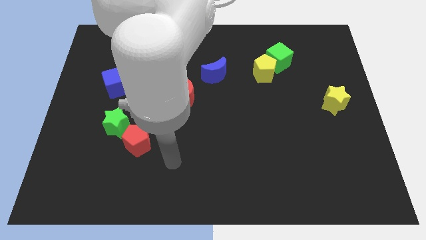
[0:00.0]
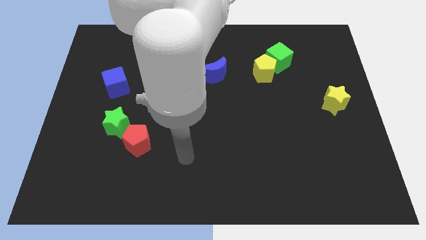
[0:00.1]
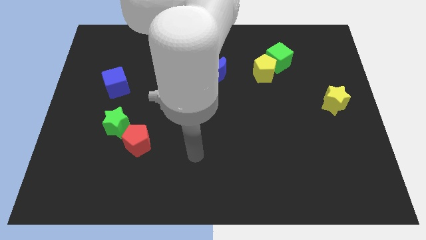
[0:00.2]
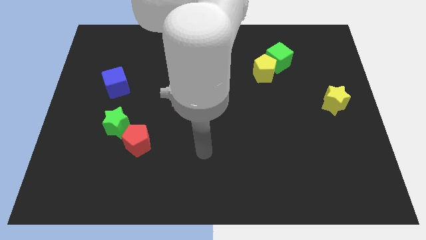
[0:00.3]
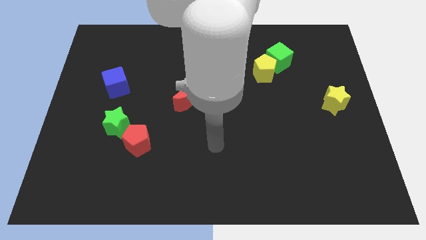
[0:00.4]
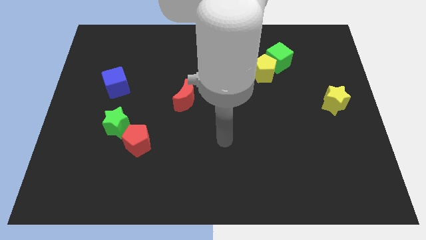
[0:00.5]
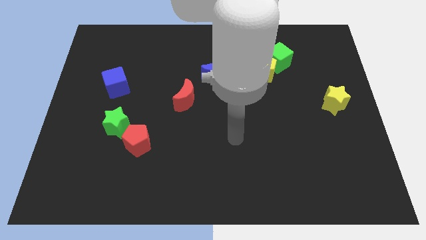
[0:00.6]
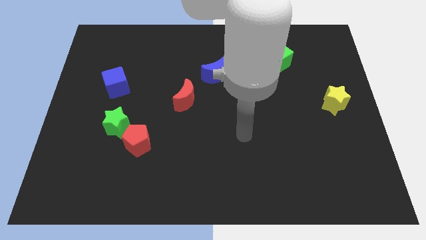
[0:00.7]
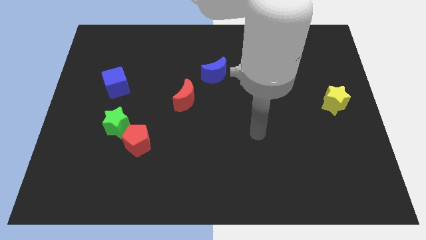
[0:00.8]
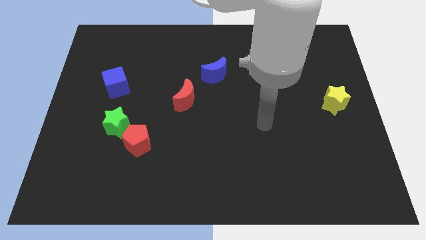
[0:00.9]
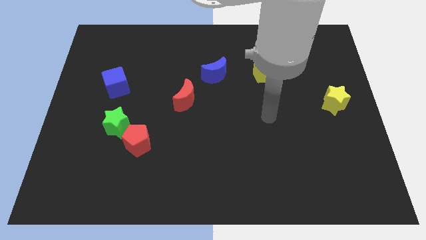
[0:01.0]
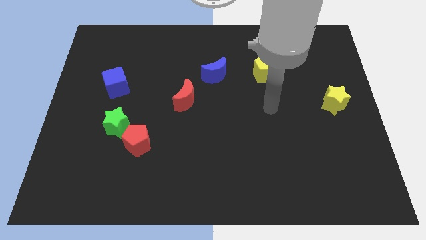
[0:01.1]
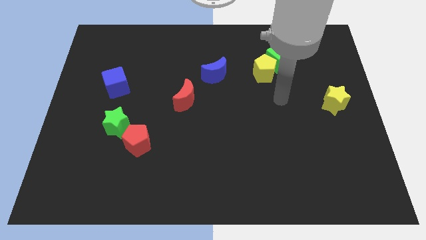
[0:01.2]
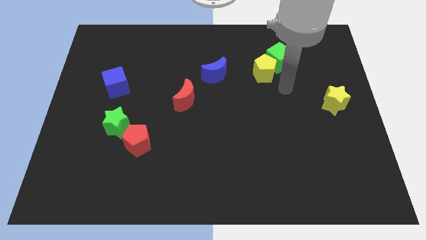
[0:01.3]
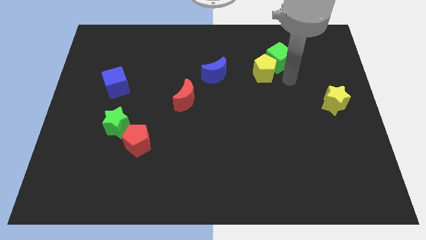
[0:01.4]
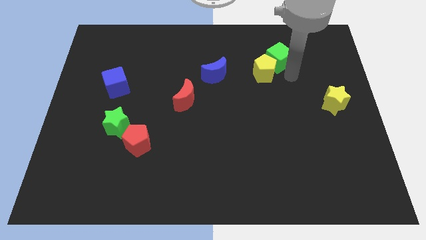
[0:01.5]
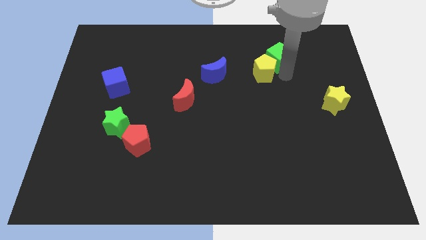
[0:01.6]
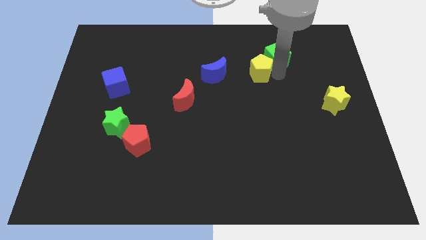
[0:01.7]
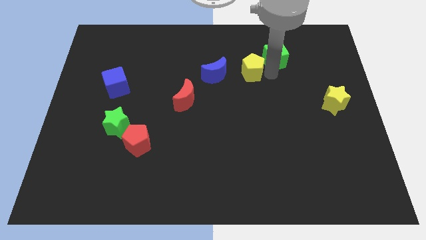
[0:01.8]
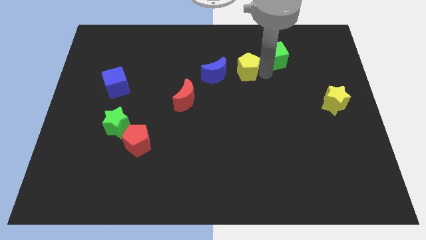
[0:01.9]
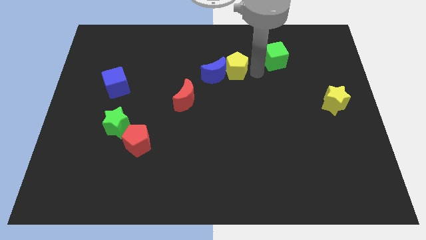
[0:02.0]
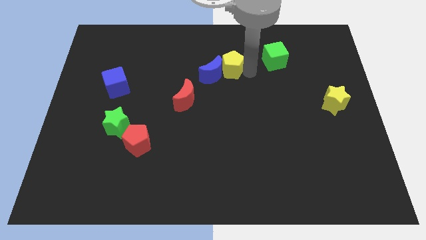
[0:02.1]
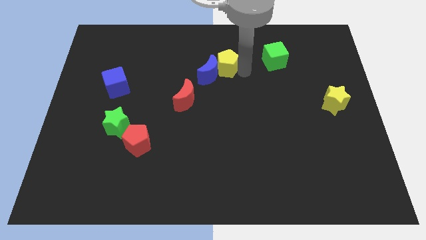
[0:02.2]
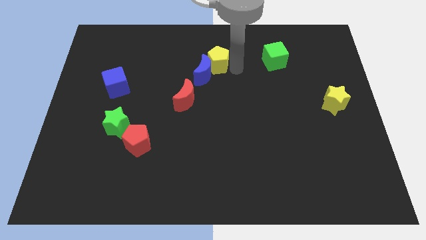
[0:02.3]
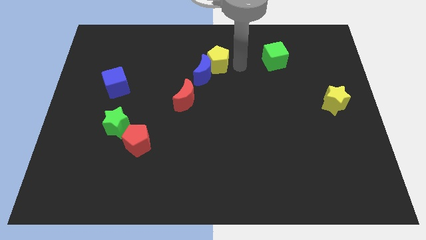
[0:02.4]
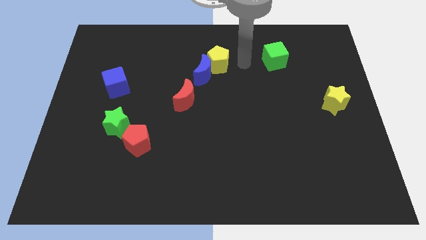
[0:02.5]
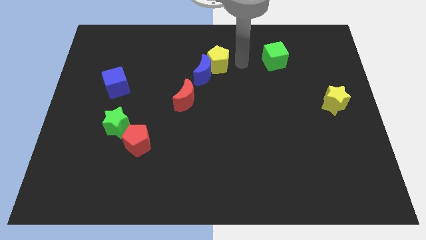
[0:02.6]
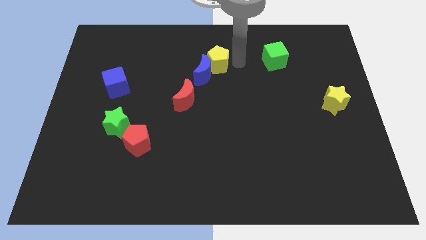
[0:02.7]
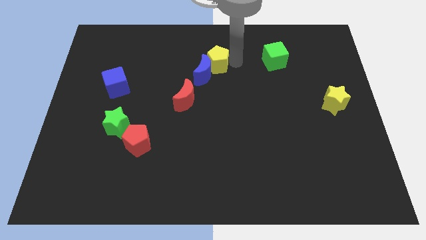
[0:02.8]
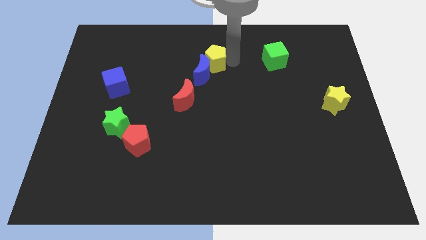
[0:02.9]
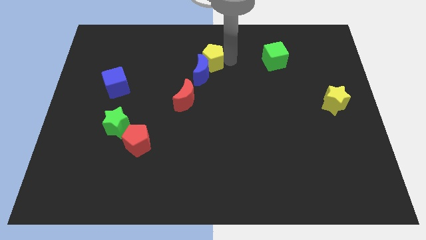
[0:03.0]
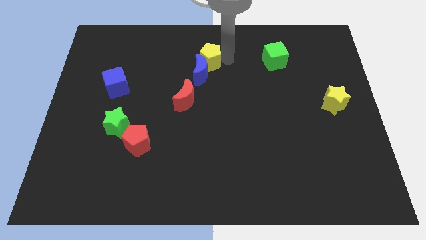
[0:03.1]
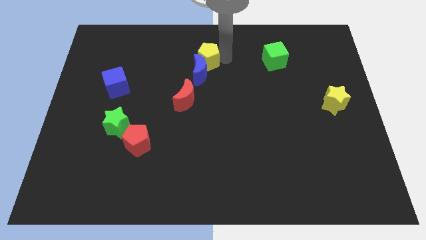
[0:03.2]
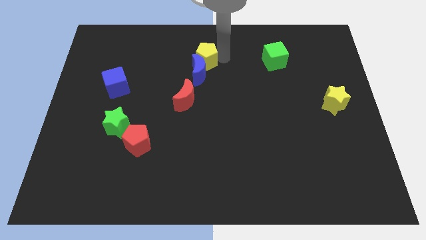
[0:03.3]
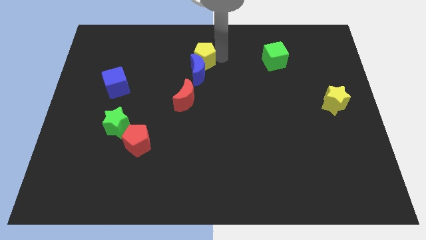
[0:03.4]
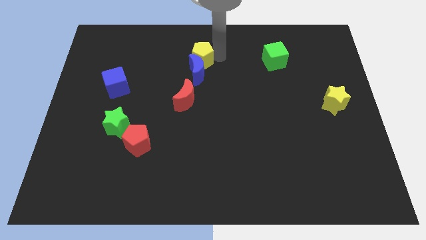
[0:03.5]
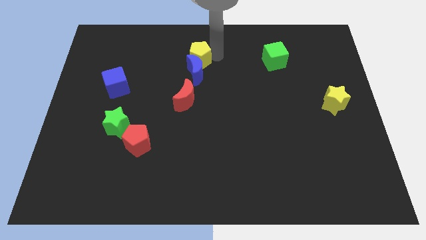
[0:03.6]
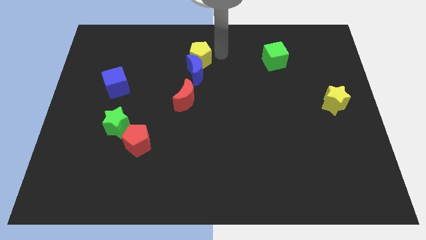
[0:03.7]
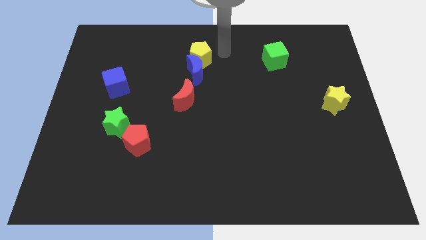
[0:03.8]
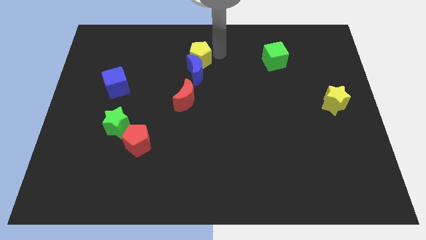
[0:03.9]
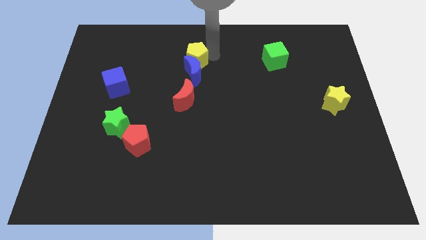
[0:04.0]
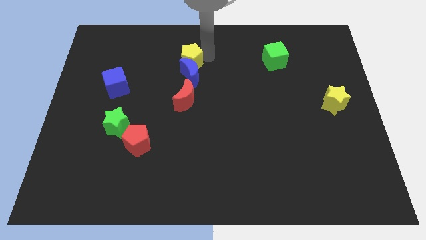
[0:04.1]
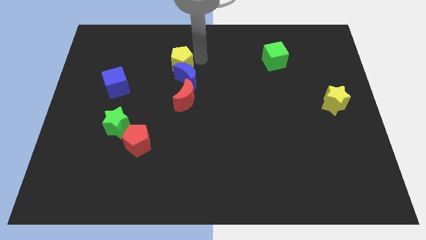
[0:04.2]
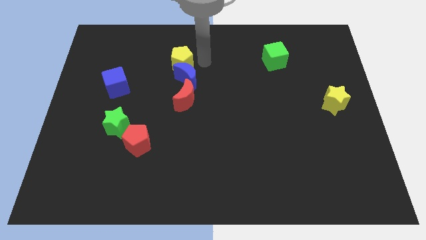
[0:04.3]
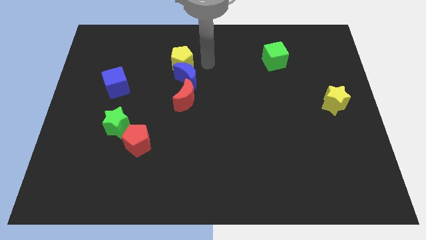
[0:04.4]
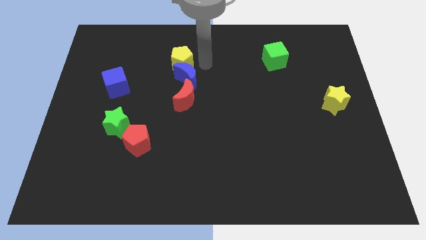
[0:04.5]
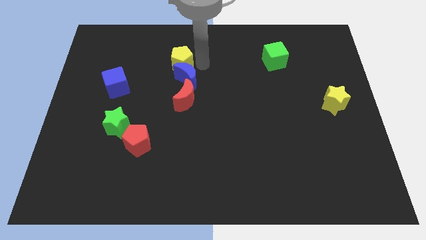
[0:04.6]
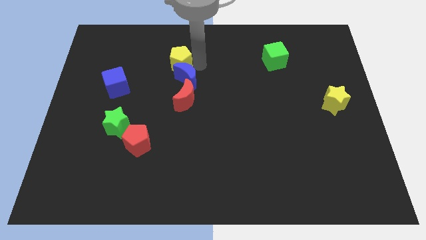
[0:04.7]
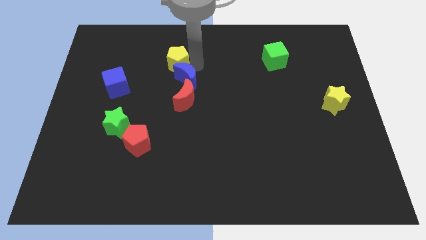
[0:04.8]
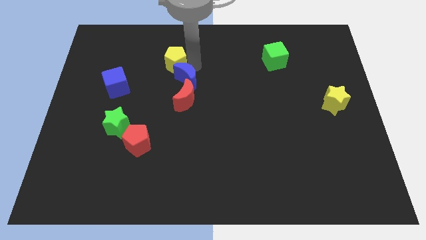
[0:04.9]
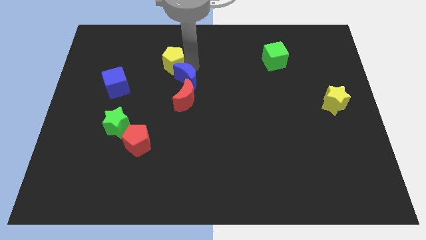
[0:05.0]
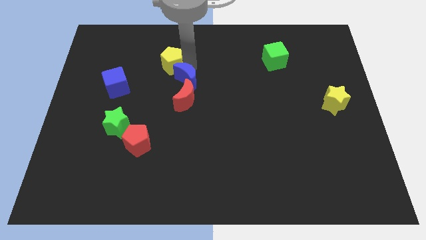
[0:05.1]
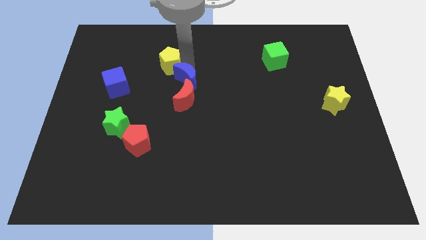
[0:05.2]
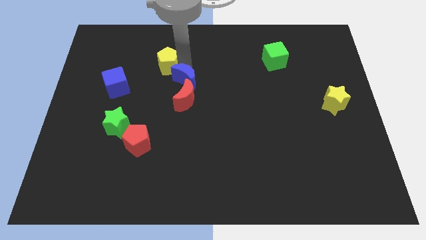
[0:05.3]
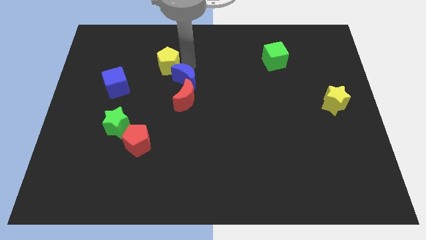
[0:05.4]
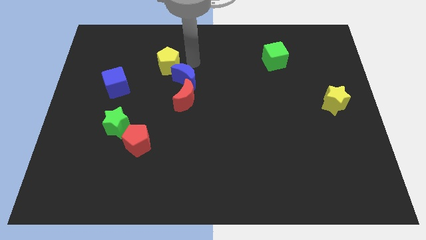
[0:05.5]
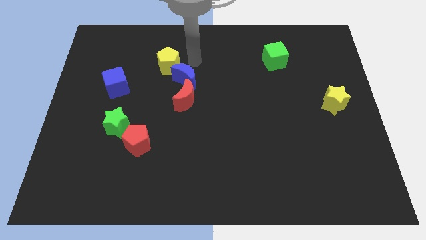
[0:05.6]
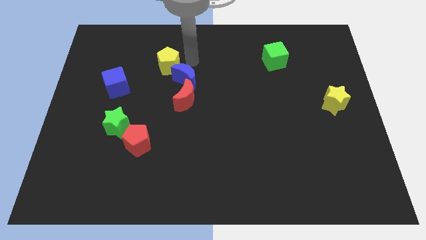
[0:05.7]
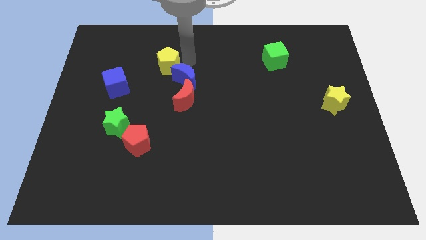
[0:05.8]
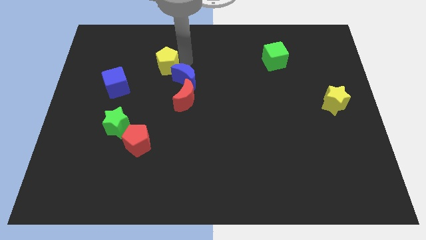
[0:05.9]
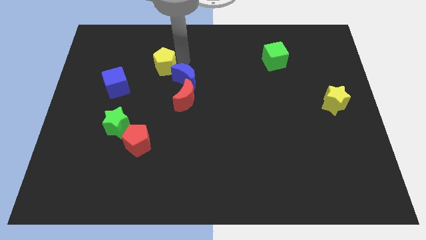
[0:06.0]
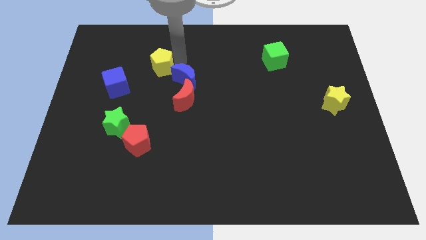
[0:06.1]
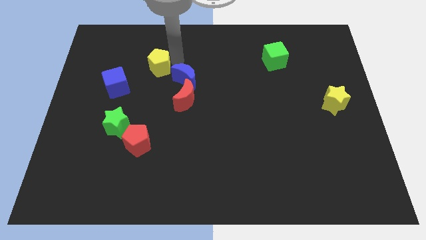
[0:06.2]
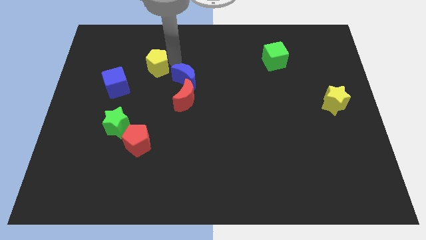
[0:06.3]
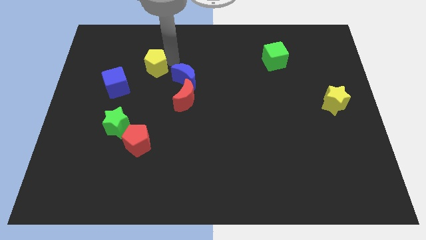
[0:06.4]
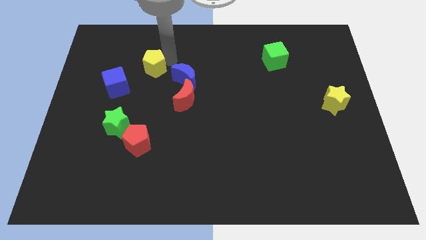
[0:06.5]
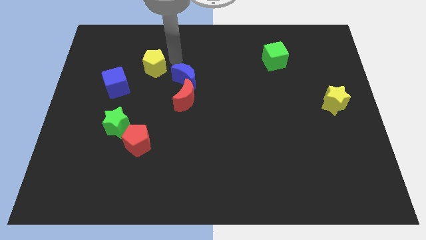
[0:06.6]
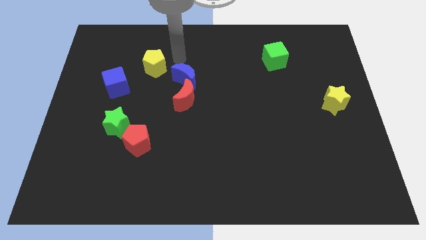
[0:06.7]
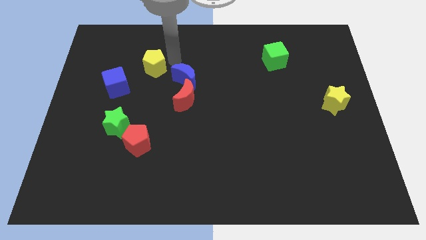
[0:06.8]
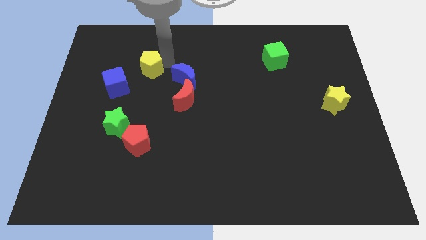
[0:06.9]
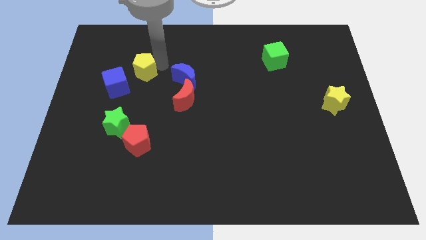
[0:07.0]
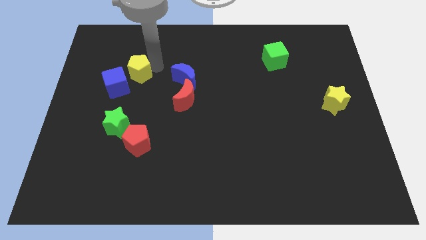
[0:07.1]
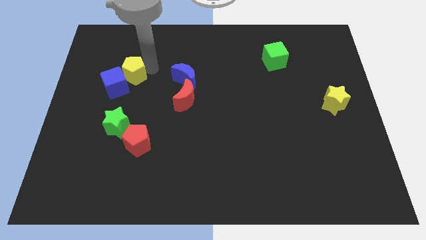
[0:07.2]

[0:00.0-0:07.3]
put the yellow pentagon above the green star
